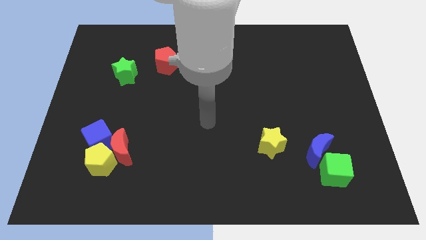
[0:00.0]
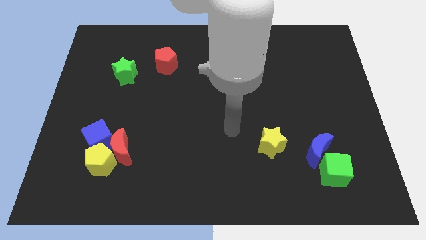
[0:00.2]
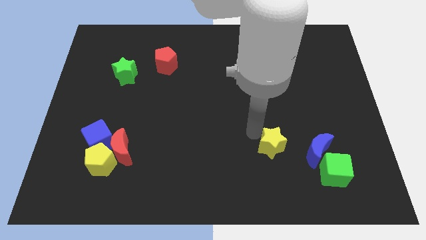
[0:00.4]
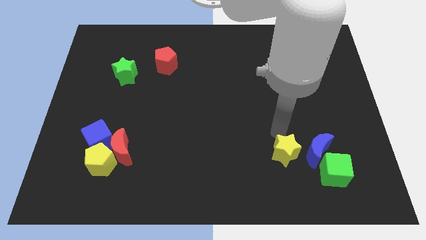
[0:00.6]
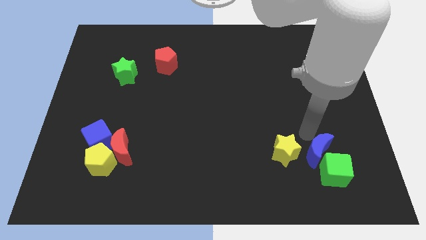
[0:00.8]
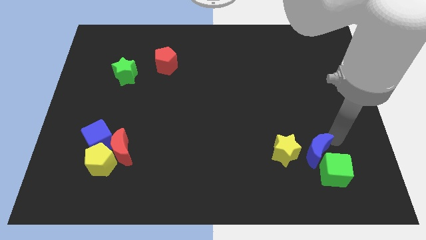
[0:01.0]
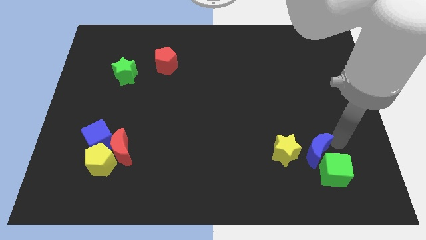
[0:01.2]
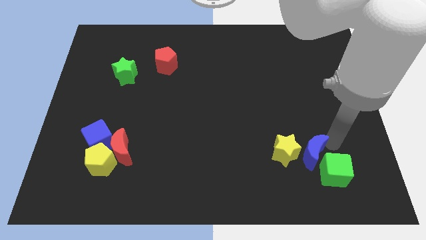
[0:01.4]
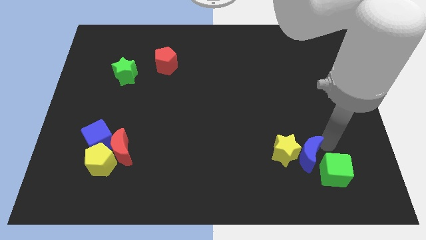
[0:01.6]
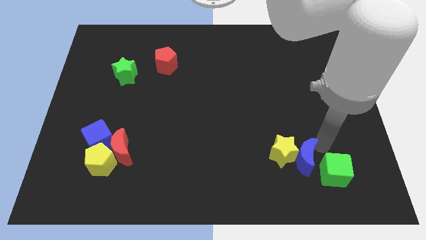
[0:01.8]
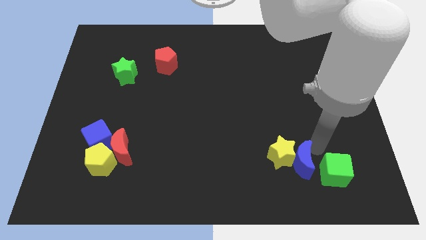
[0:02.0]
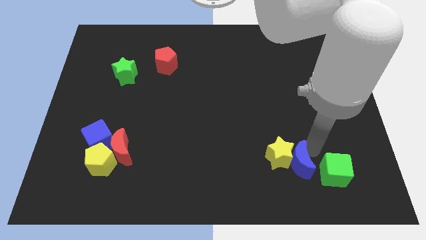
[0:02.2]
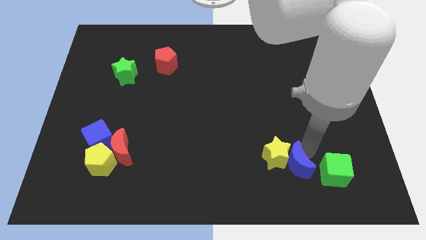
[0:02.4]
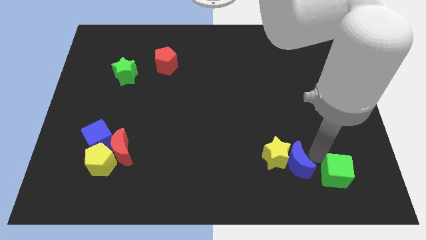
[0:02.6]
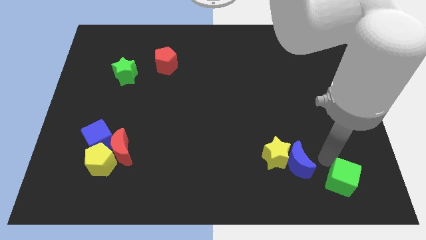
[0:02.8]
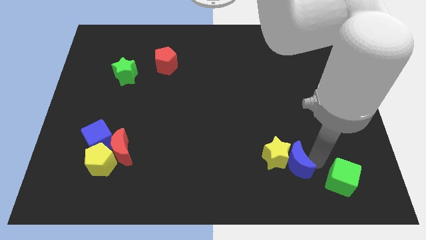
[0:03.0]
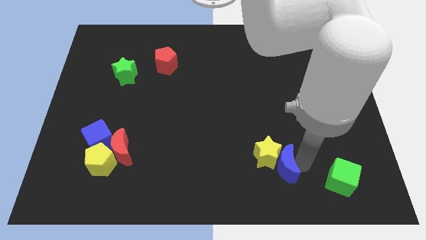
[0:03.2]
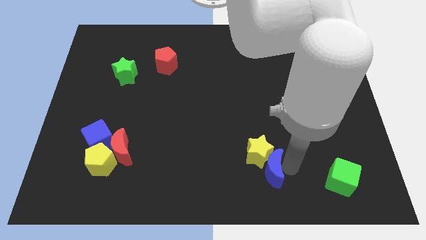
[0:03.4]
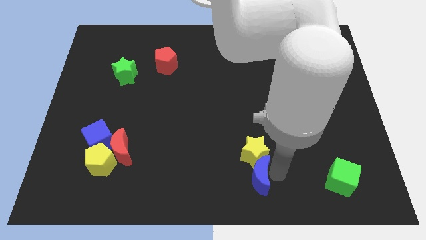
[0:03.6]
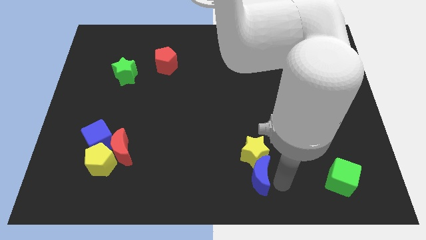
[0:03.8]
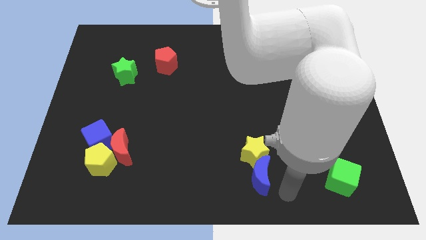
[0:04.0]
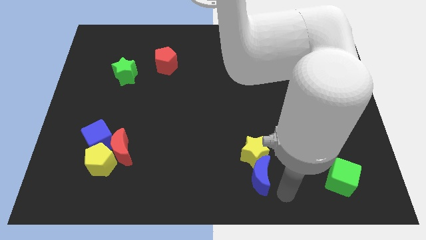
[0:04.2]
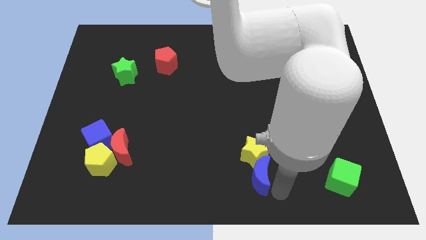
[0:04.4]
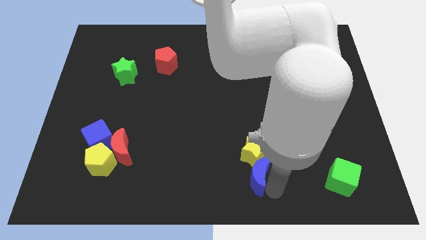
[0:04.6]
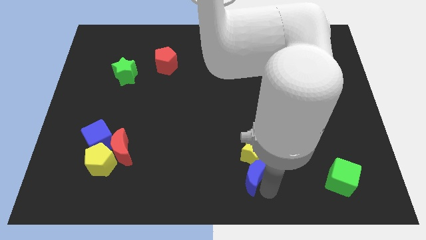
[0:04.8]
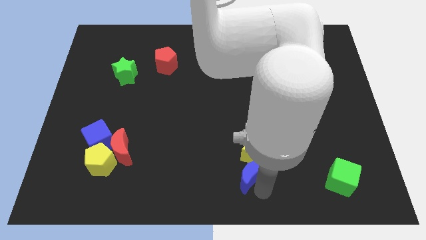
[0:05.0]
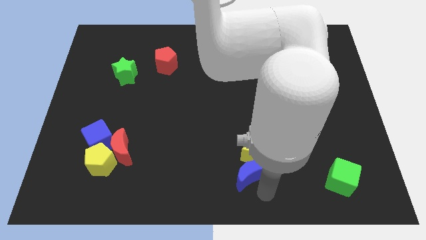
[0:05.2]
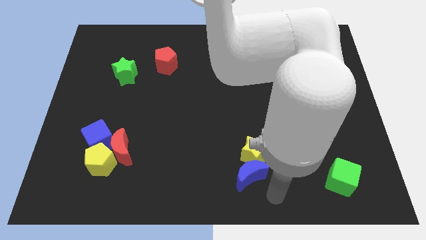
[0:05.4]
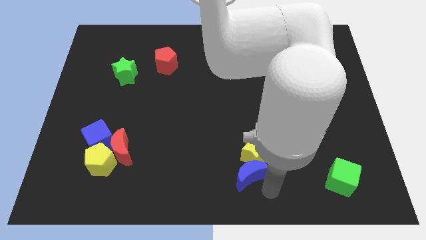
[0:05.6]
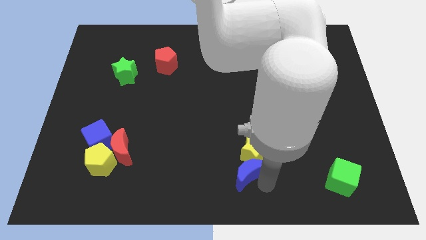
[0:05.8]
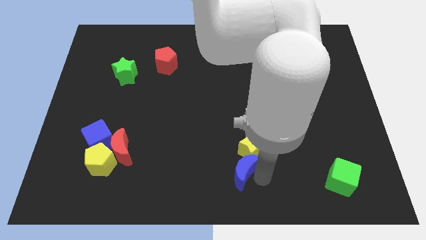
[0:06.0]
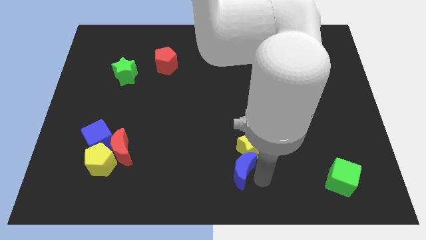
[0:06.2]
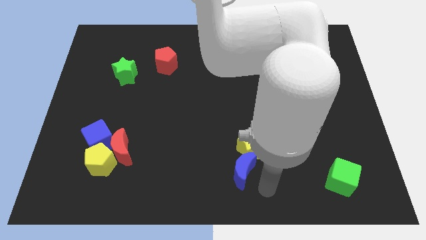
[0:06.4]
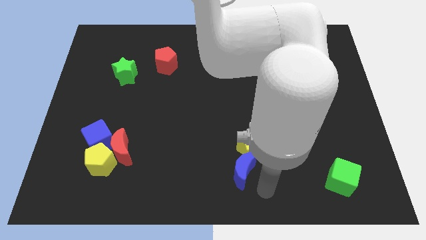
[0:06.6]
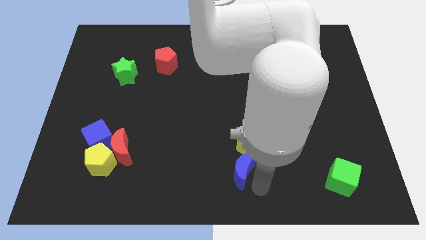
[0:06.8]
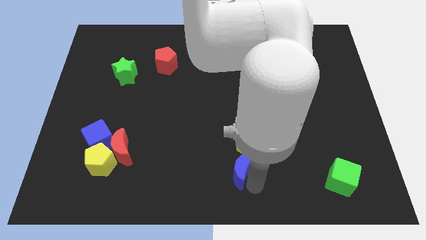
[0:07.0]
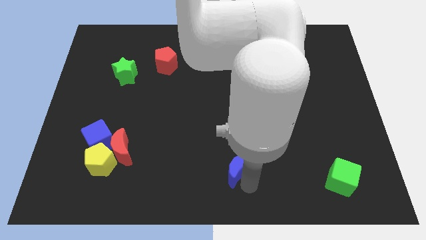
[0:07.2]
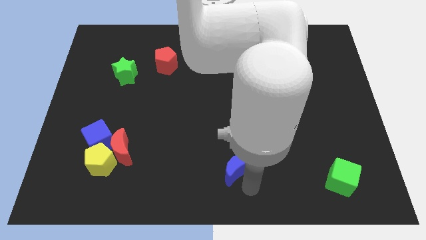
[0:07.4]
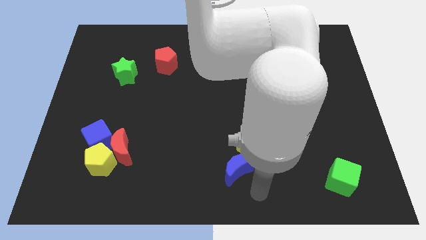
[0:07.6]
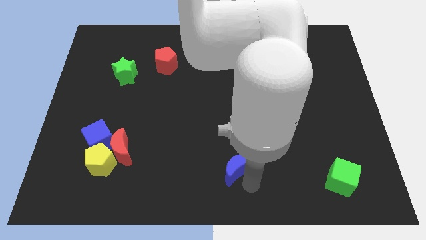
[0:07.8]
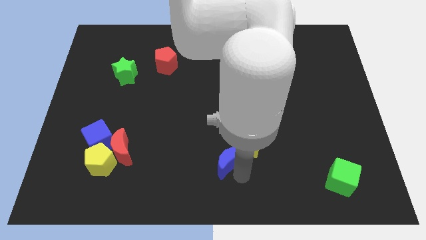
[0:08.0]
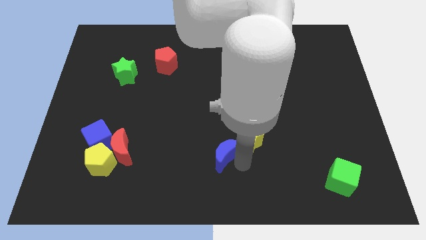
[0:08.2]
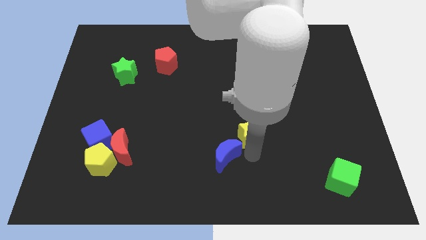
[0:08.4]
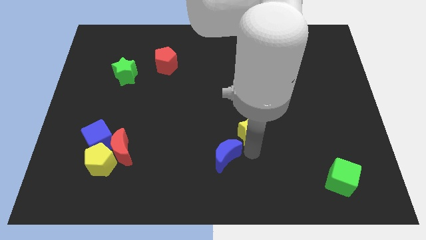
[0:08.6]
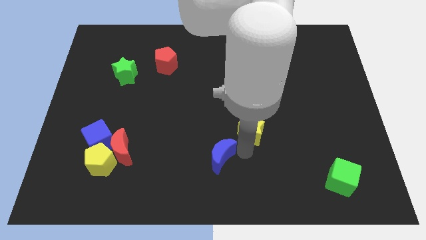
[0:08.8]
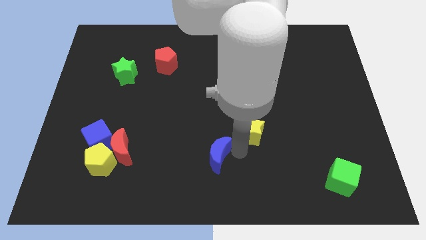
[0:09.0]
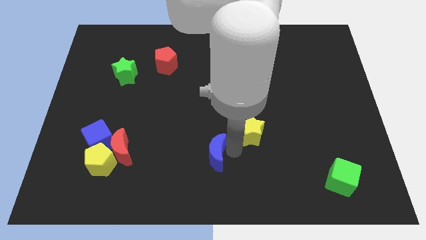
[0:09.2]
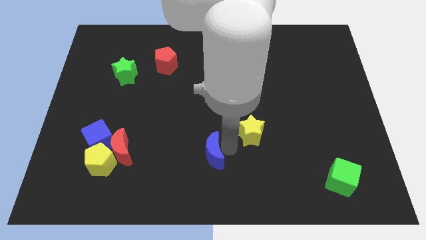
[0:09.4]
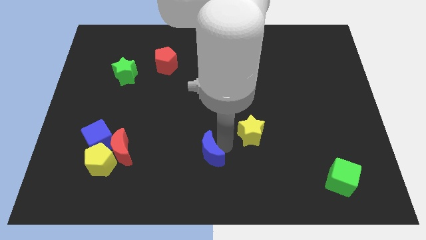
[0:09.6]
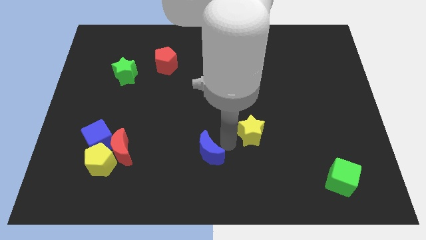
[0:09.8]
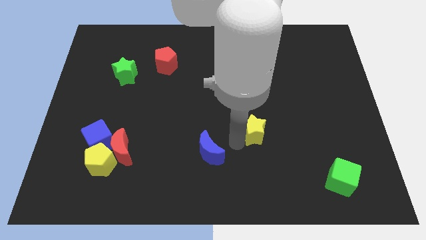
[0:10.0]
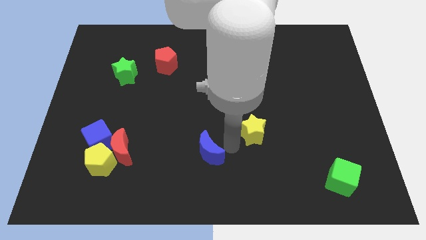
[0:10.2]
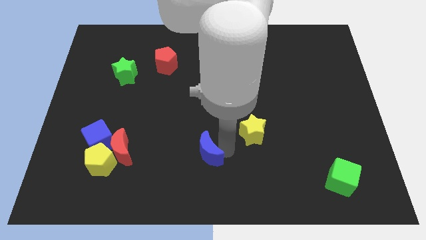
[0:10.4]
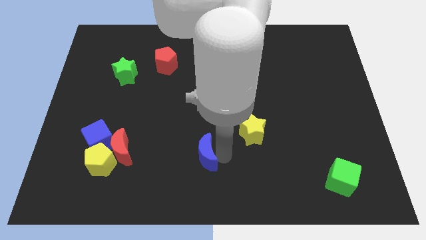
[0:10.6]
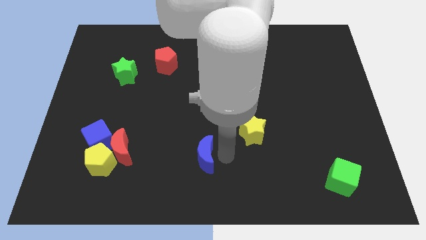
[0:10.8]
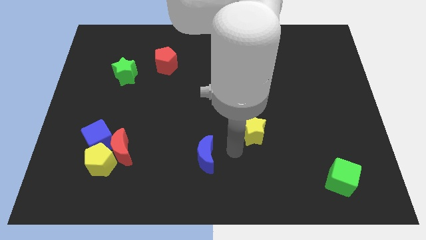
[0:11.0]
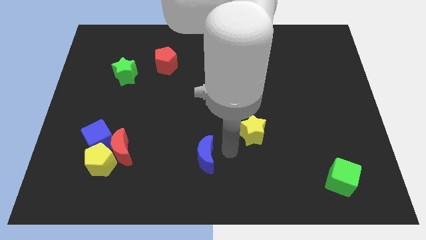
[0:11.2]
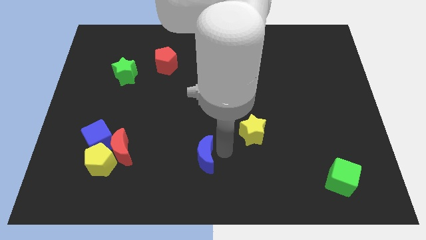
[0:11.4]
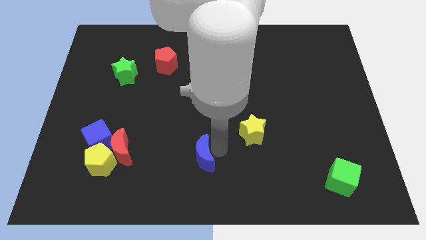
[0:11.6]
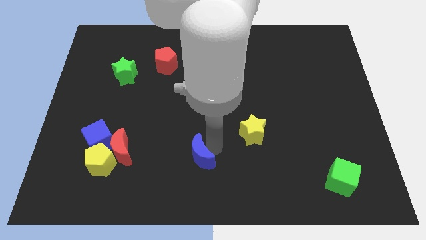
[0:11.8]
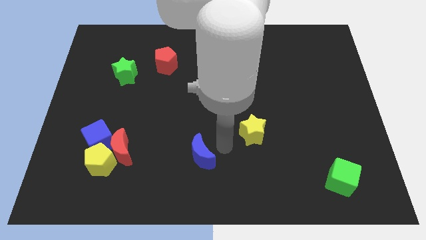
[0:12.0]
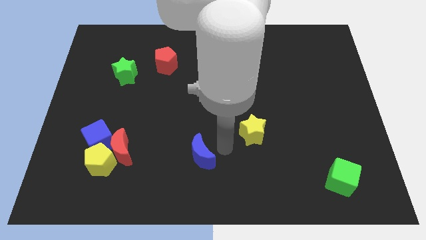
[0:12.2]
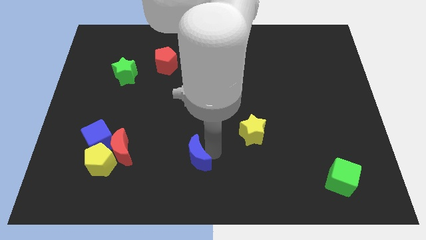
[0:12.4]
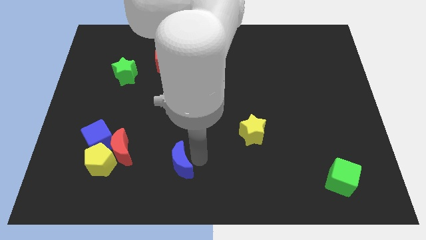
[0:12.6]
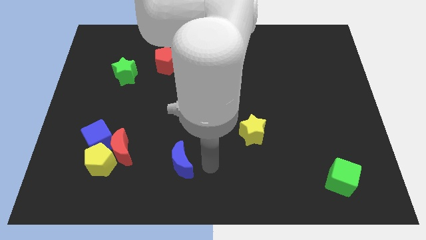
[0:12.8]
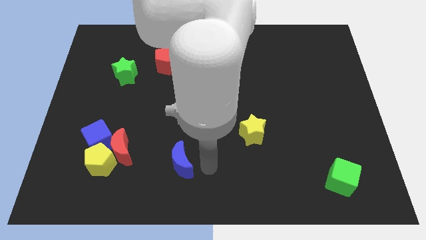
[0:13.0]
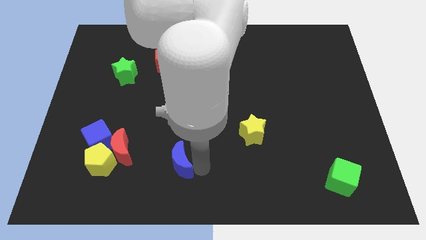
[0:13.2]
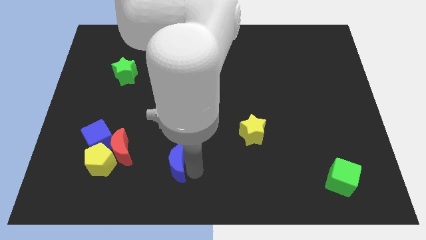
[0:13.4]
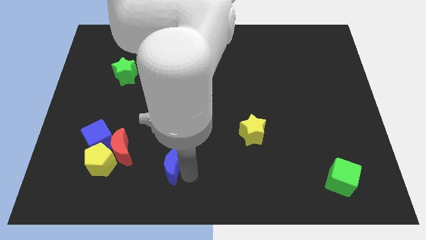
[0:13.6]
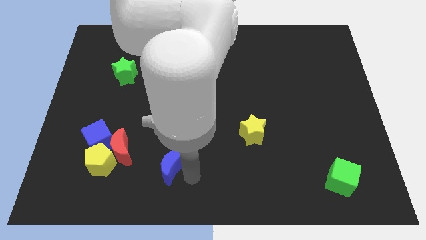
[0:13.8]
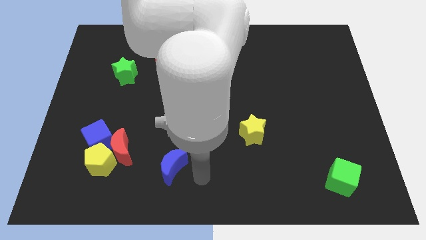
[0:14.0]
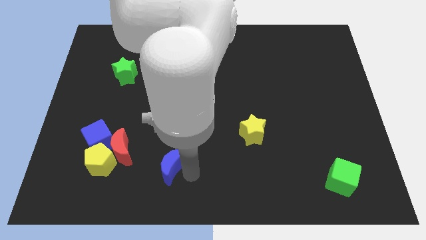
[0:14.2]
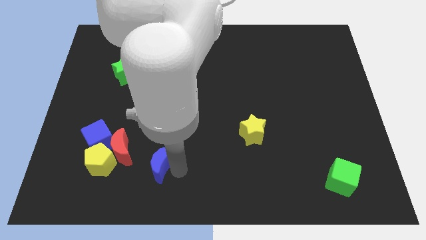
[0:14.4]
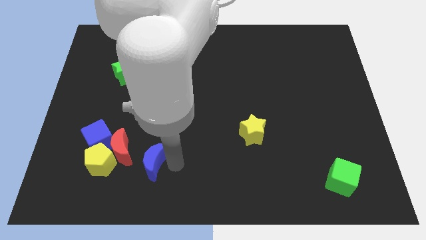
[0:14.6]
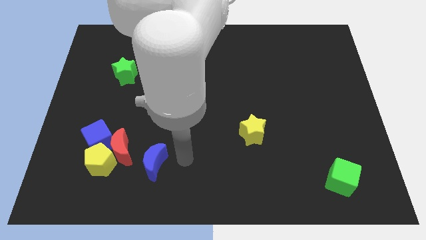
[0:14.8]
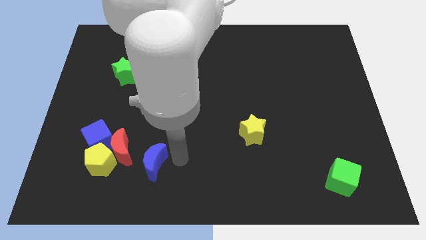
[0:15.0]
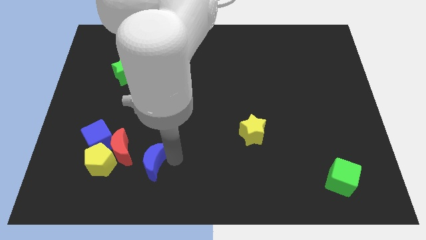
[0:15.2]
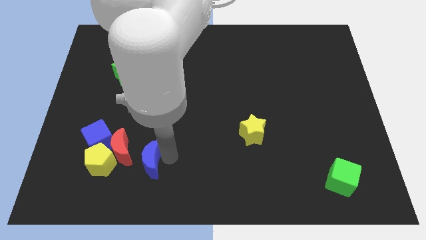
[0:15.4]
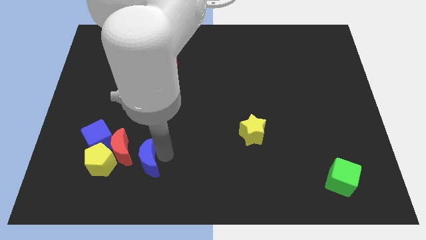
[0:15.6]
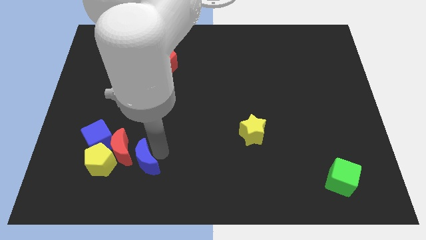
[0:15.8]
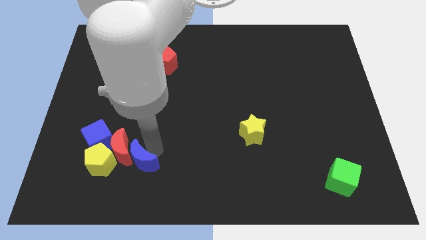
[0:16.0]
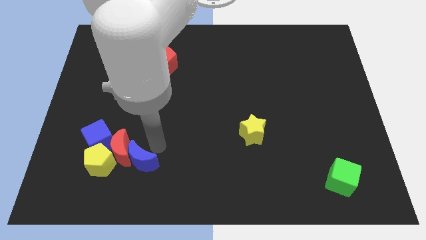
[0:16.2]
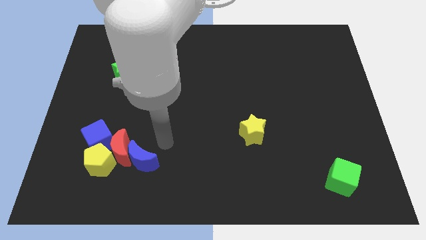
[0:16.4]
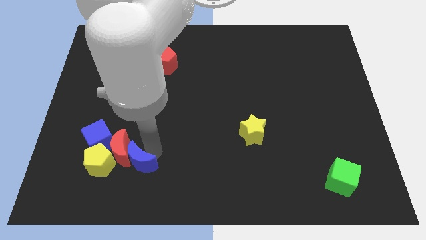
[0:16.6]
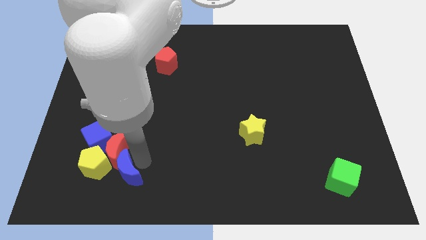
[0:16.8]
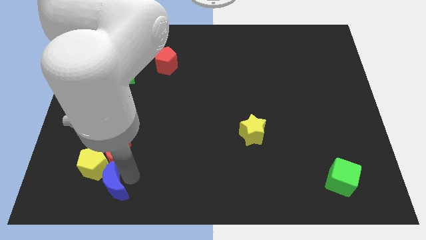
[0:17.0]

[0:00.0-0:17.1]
put the blue moon to the bottom of the blue cube
